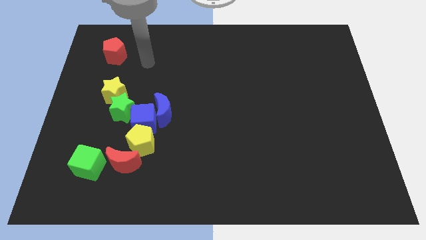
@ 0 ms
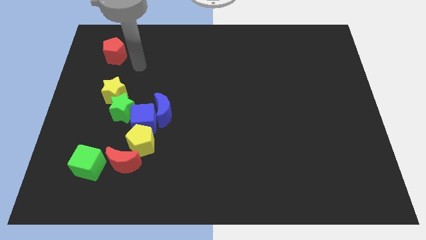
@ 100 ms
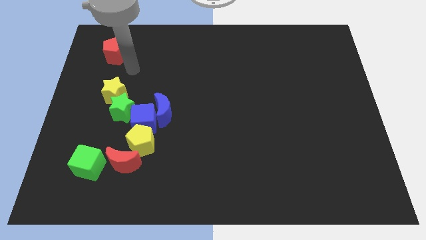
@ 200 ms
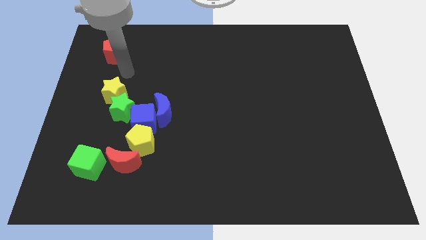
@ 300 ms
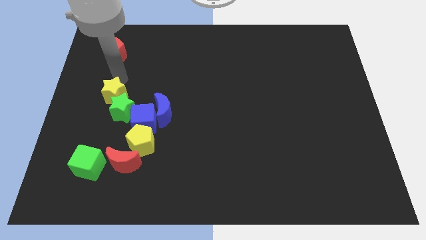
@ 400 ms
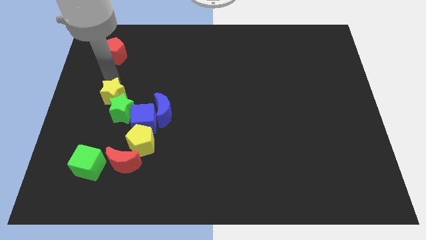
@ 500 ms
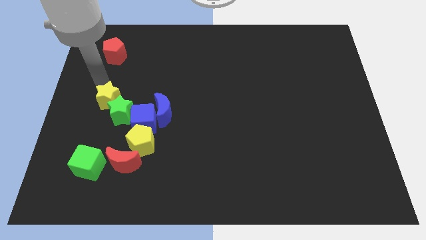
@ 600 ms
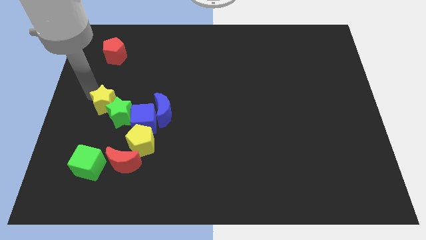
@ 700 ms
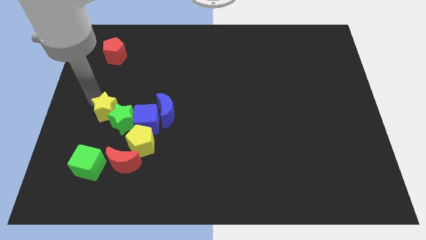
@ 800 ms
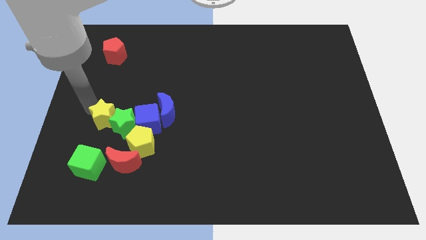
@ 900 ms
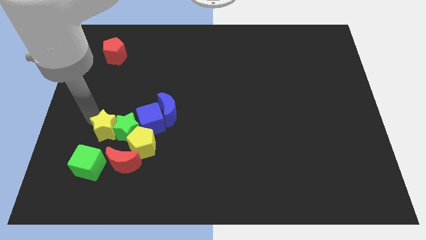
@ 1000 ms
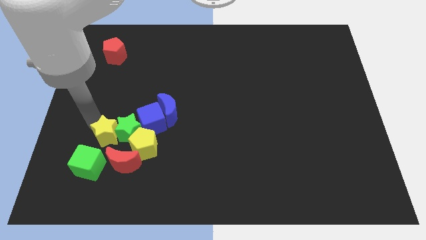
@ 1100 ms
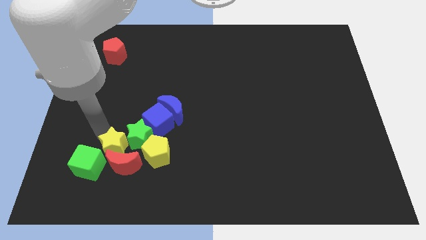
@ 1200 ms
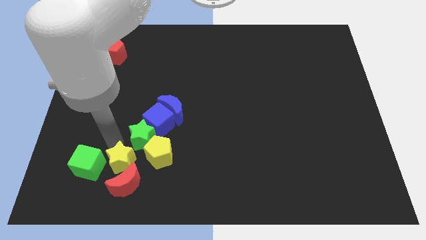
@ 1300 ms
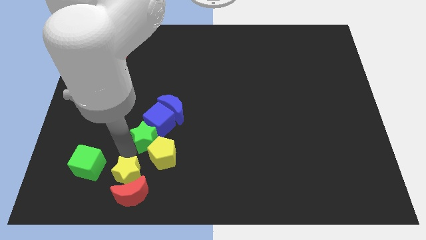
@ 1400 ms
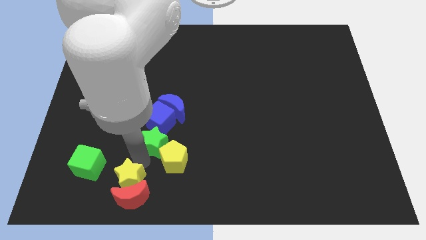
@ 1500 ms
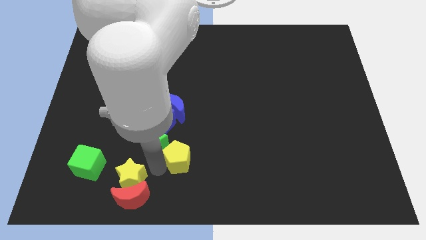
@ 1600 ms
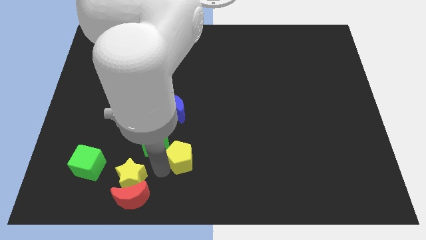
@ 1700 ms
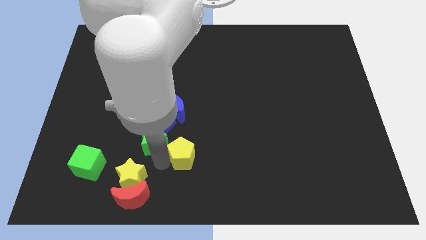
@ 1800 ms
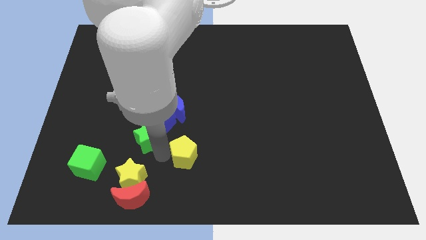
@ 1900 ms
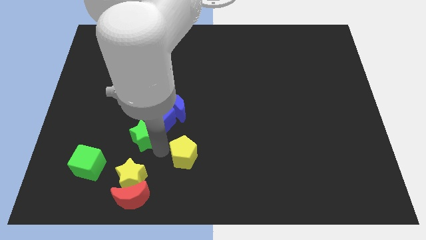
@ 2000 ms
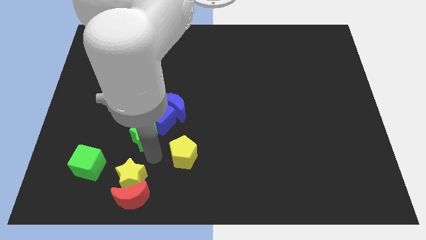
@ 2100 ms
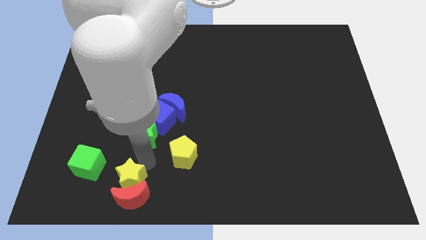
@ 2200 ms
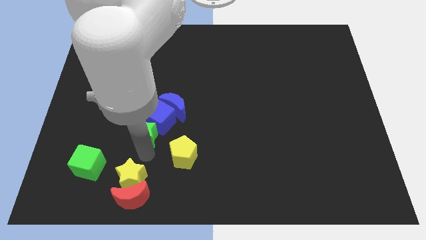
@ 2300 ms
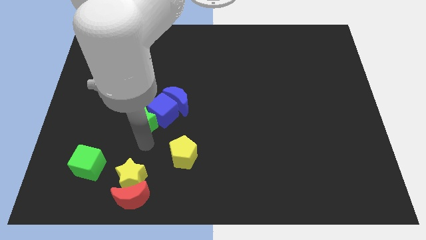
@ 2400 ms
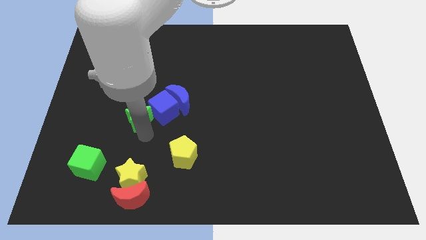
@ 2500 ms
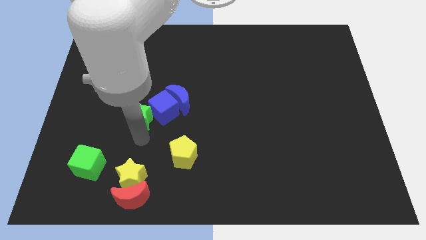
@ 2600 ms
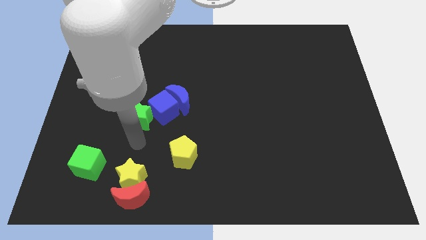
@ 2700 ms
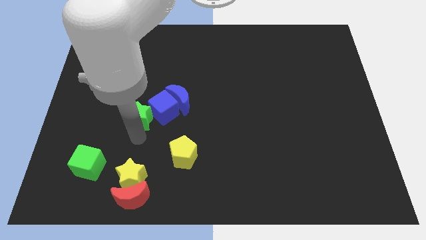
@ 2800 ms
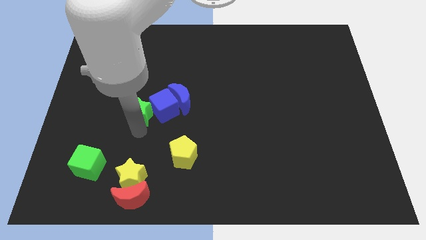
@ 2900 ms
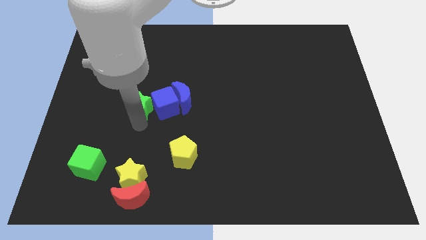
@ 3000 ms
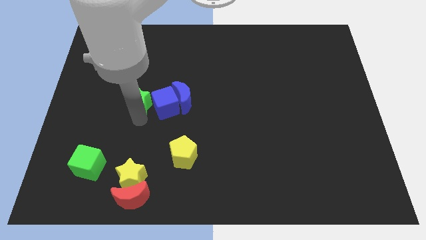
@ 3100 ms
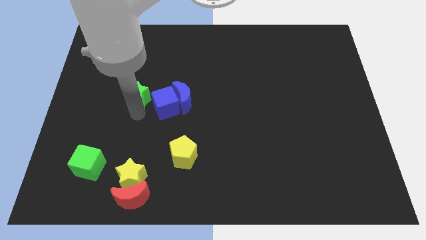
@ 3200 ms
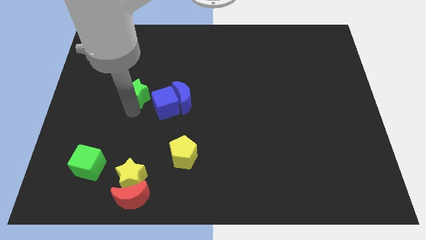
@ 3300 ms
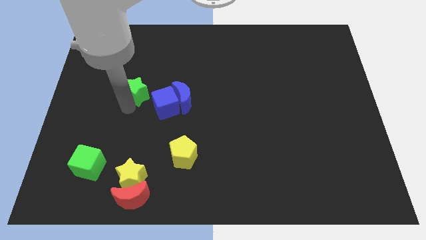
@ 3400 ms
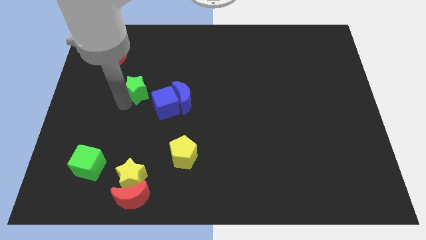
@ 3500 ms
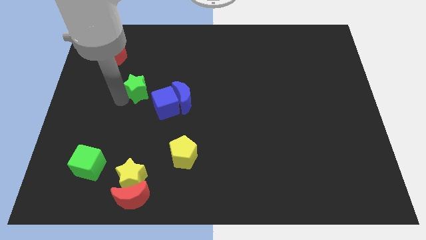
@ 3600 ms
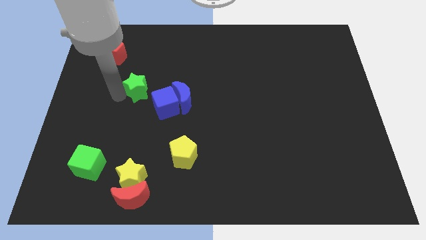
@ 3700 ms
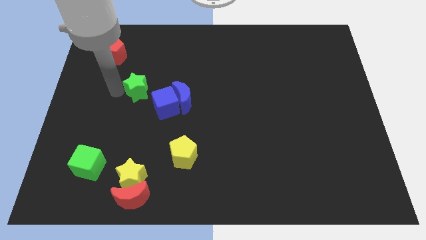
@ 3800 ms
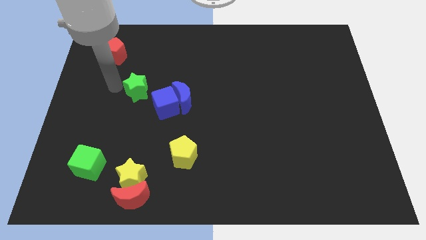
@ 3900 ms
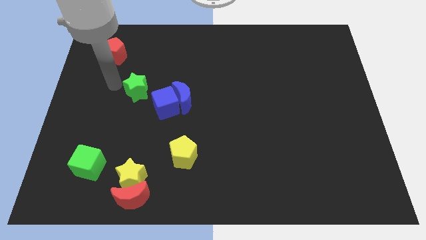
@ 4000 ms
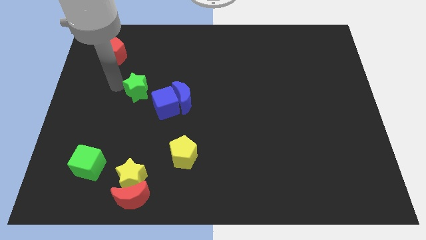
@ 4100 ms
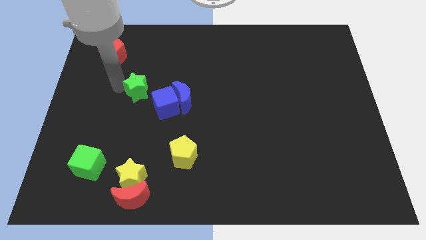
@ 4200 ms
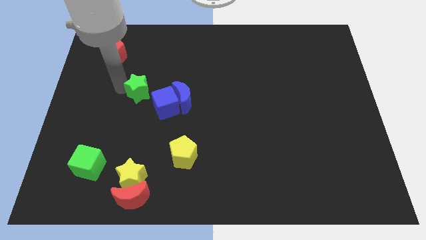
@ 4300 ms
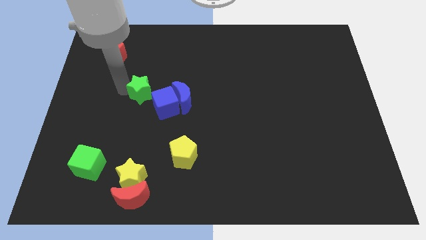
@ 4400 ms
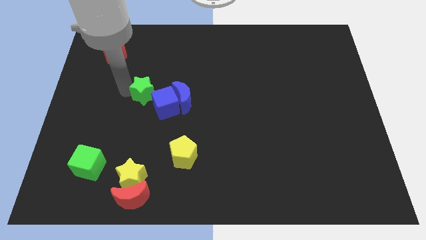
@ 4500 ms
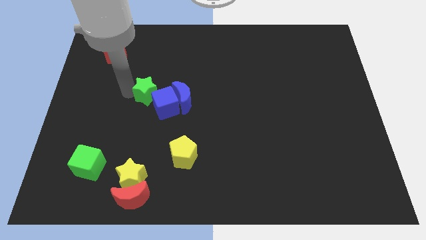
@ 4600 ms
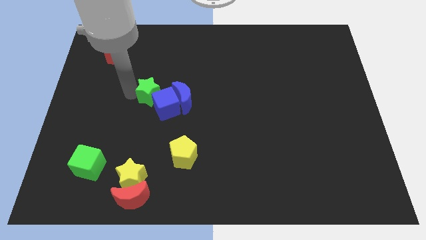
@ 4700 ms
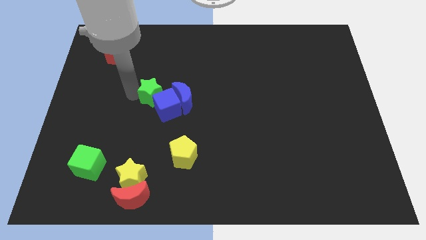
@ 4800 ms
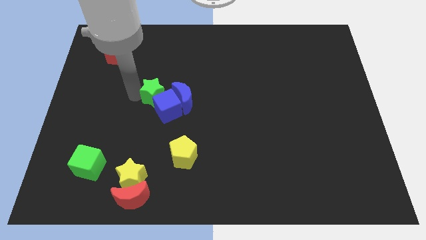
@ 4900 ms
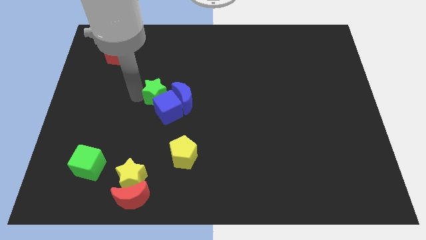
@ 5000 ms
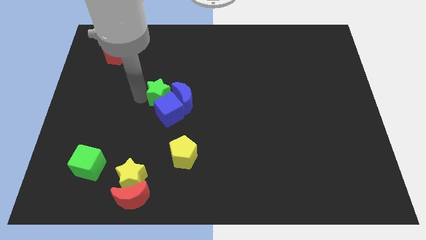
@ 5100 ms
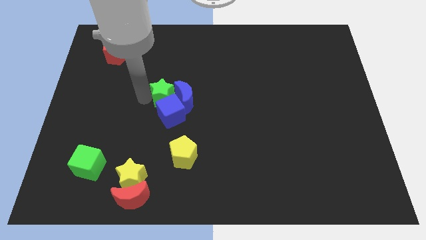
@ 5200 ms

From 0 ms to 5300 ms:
move the green star to the middle

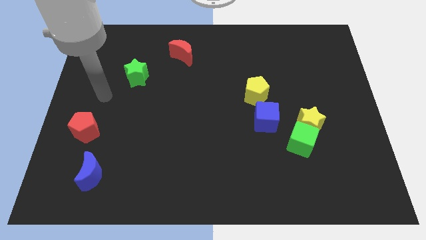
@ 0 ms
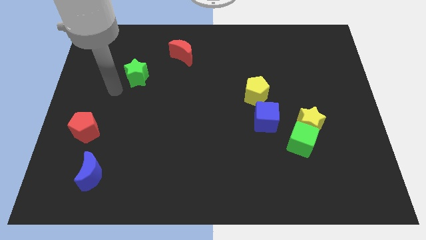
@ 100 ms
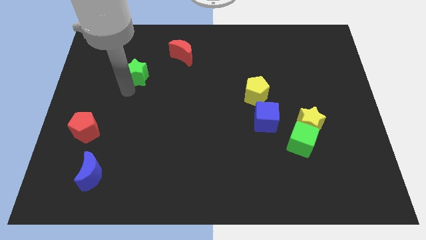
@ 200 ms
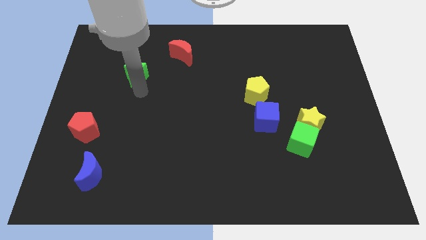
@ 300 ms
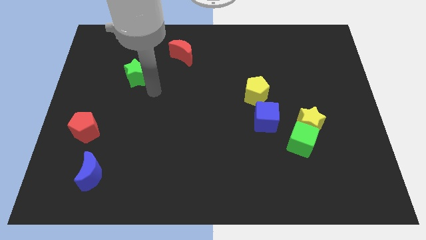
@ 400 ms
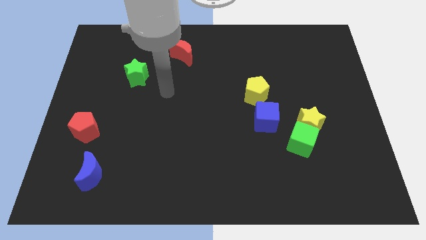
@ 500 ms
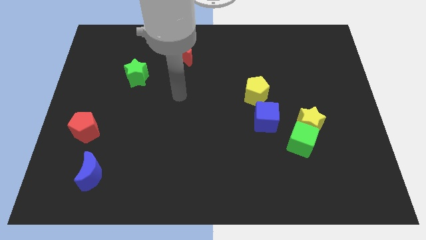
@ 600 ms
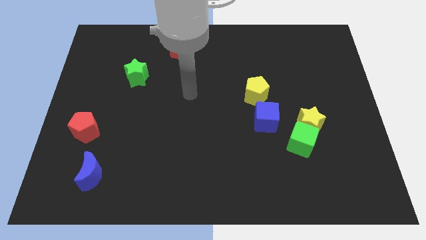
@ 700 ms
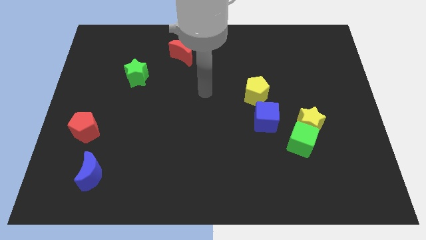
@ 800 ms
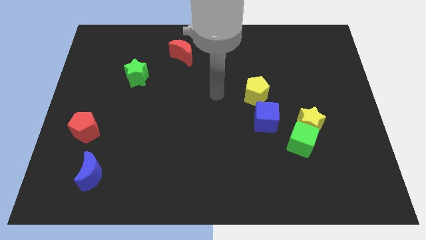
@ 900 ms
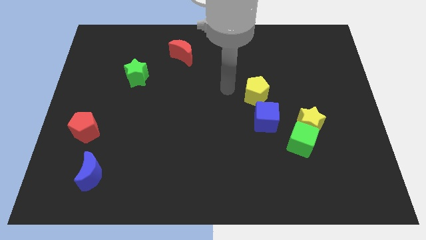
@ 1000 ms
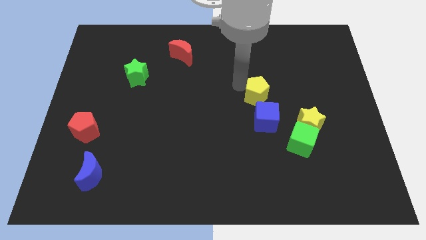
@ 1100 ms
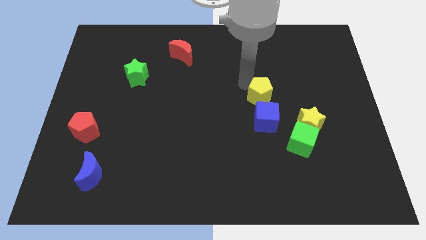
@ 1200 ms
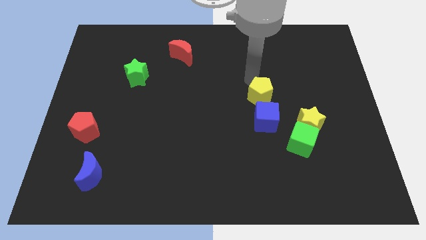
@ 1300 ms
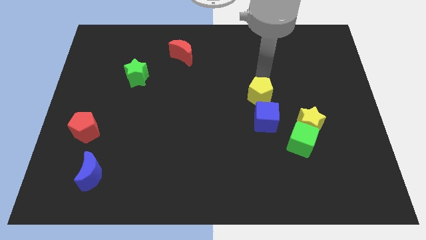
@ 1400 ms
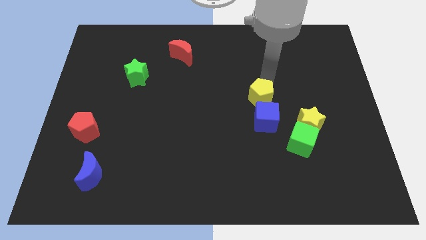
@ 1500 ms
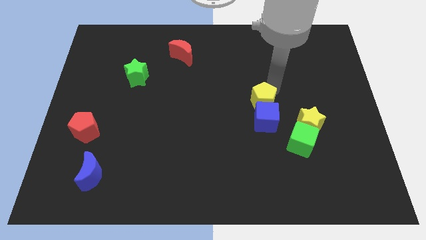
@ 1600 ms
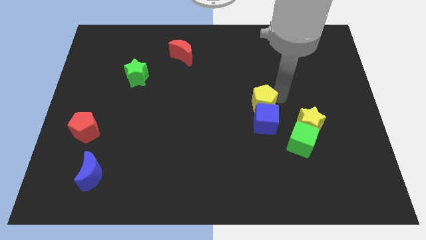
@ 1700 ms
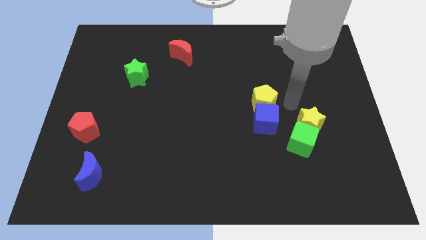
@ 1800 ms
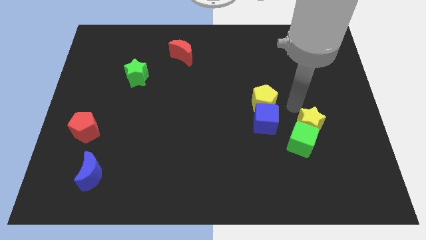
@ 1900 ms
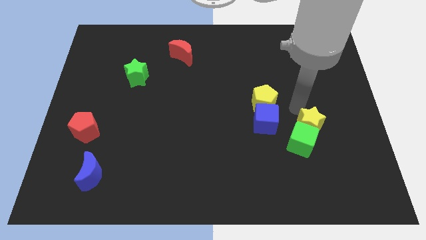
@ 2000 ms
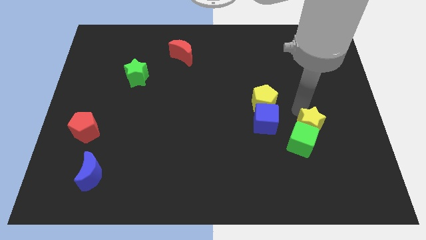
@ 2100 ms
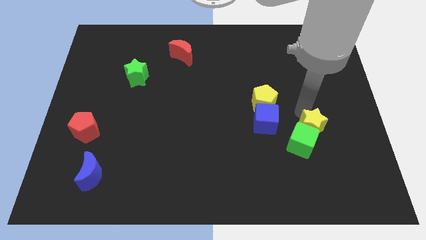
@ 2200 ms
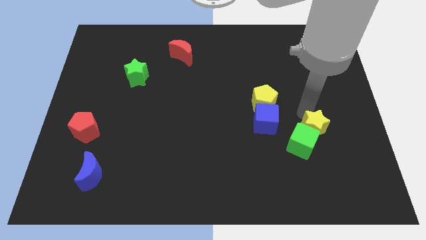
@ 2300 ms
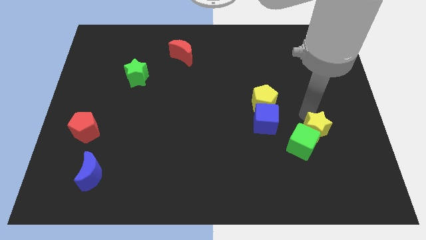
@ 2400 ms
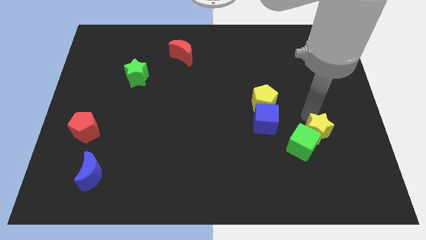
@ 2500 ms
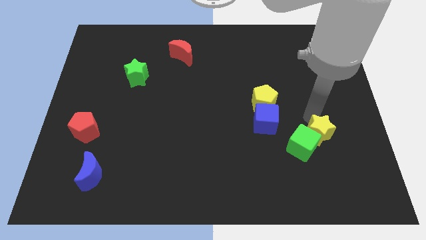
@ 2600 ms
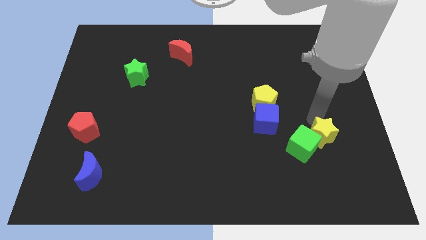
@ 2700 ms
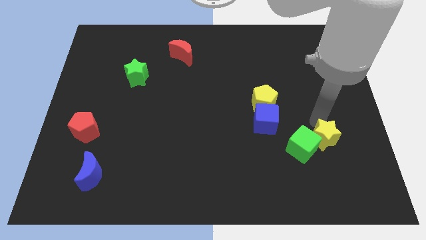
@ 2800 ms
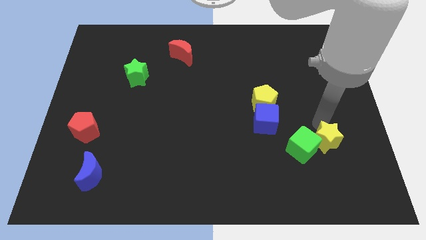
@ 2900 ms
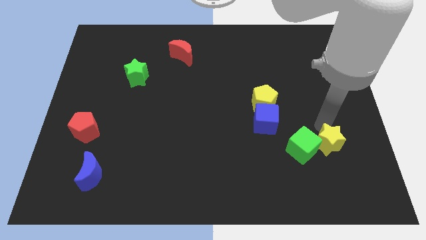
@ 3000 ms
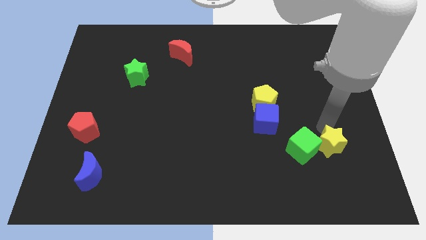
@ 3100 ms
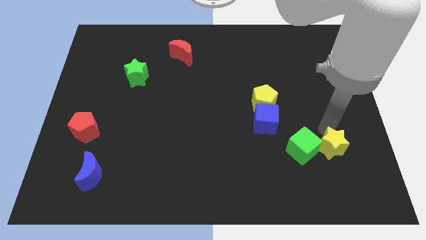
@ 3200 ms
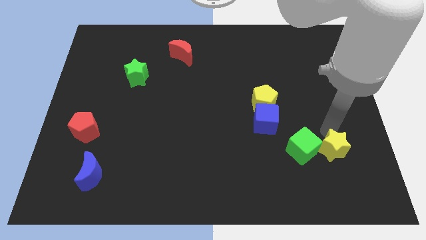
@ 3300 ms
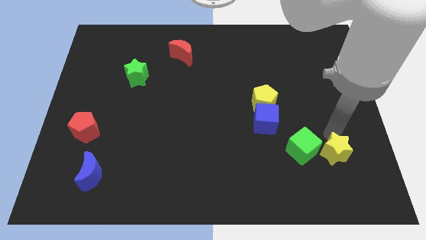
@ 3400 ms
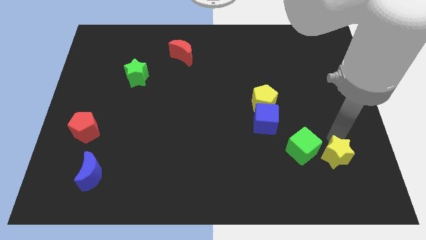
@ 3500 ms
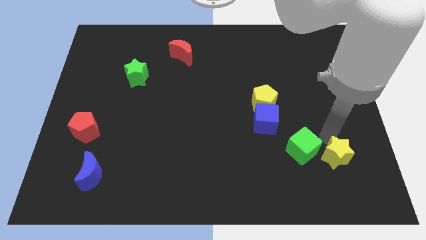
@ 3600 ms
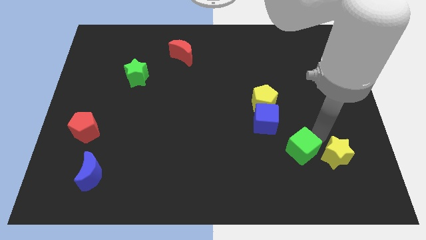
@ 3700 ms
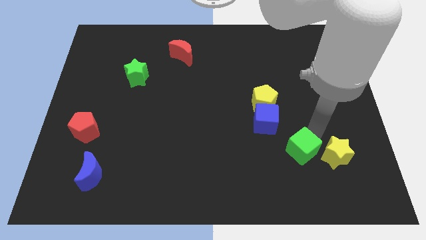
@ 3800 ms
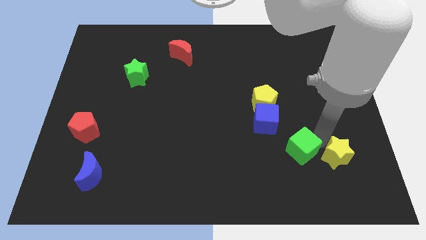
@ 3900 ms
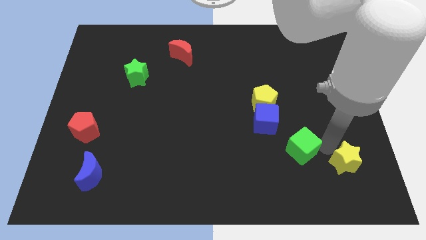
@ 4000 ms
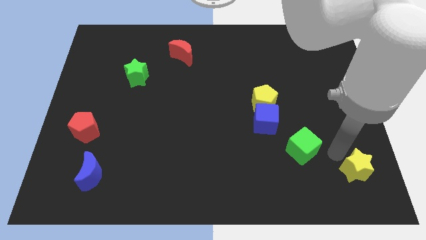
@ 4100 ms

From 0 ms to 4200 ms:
put the yellow star to the bottom right corner
